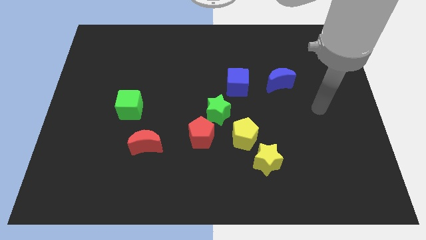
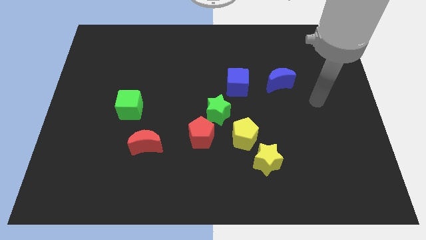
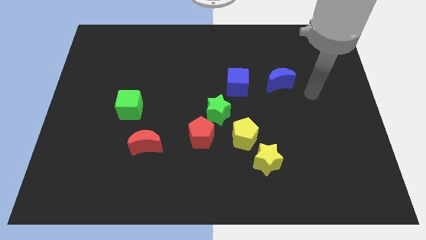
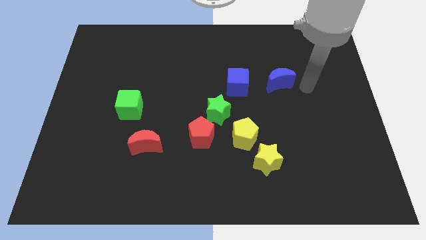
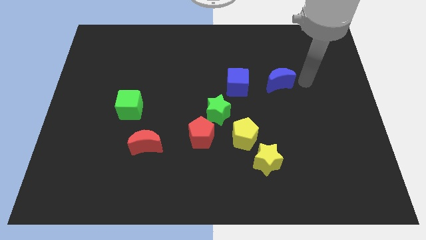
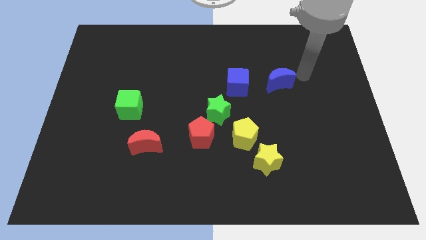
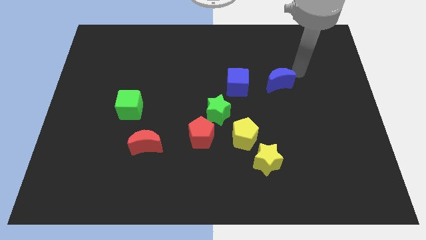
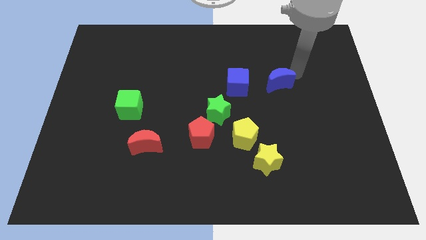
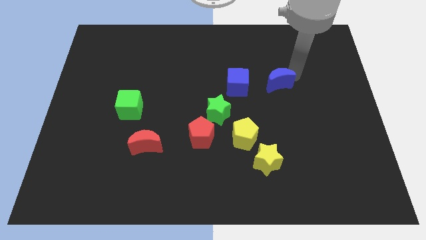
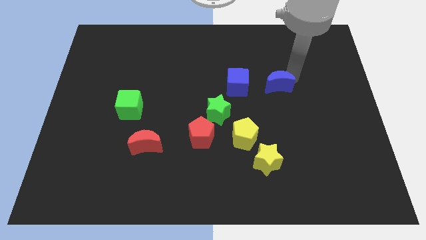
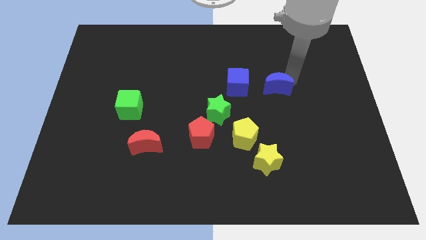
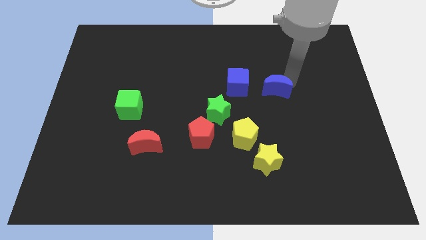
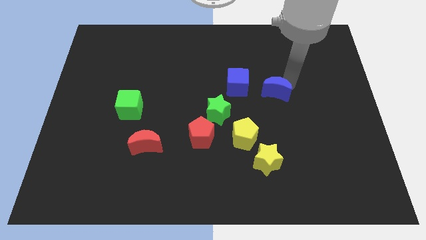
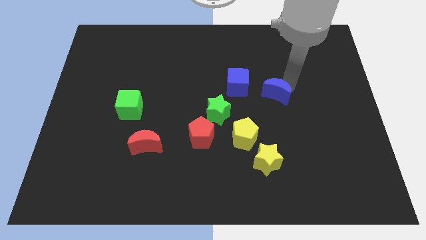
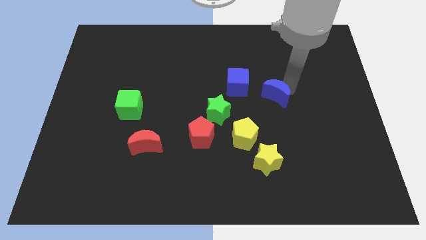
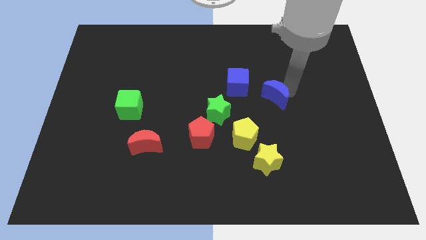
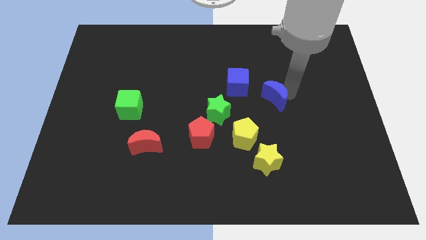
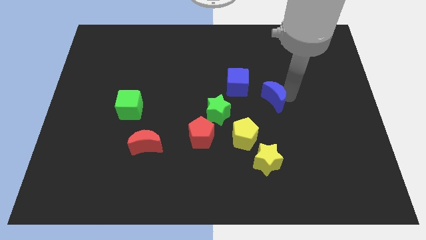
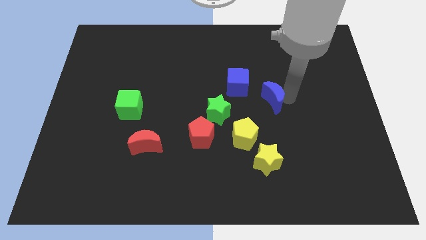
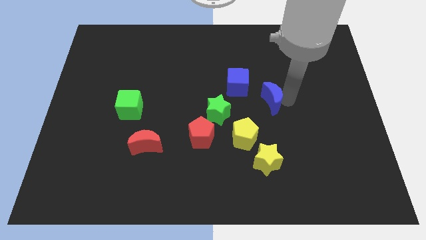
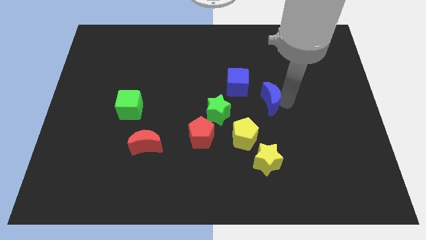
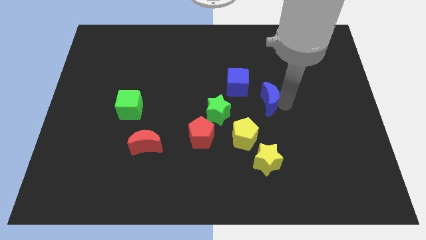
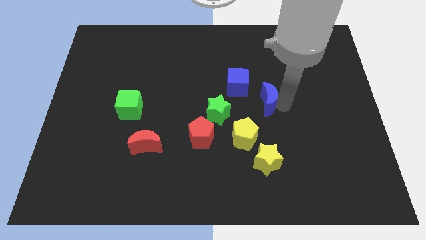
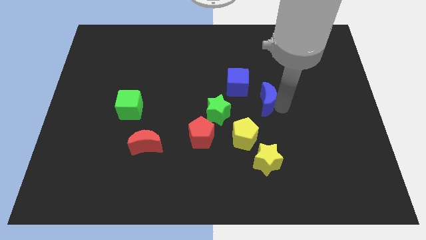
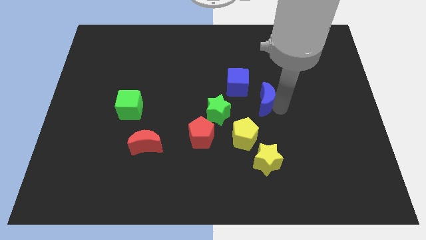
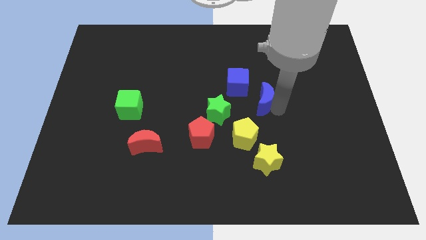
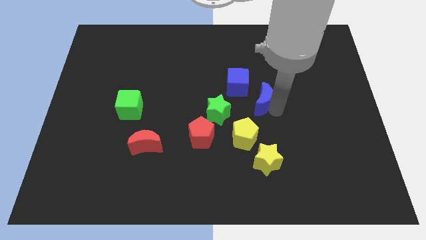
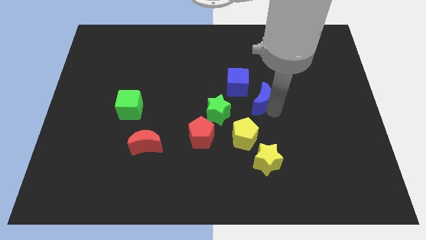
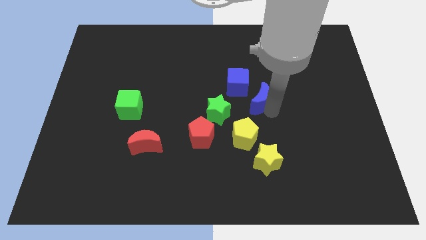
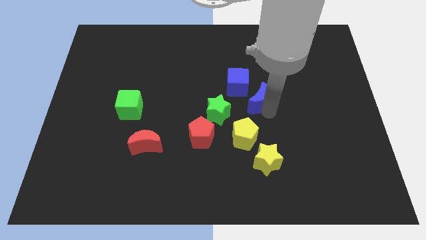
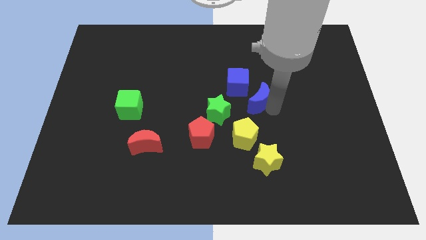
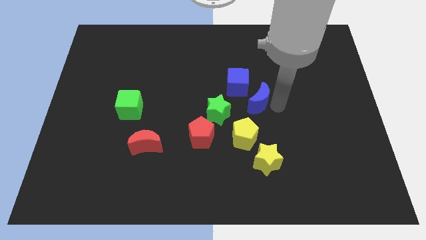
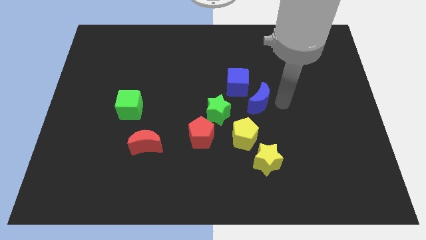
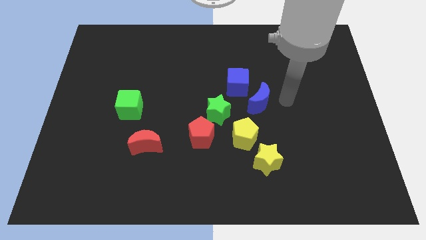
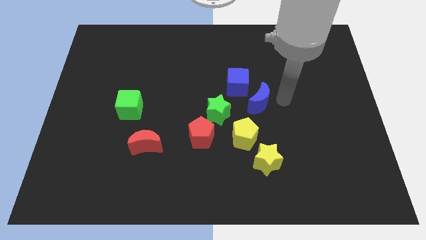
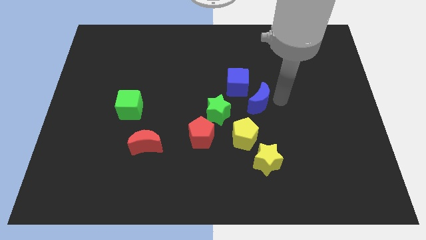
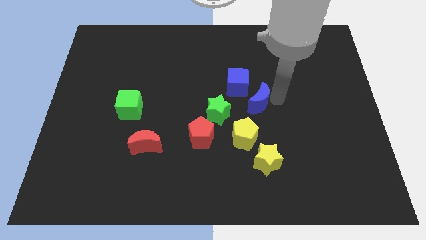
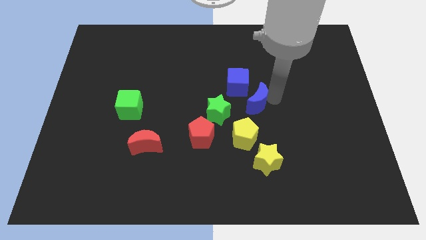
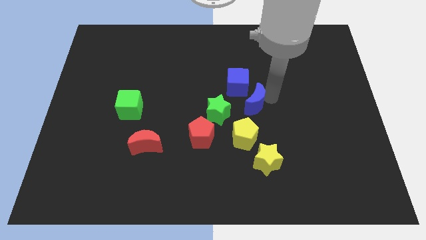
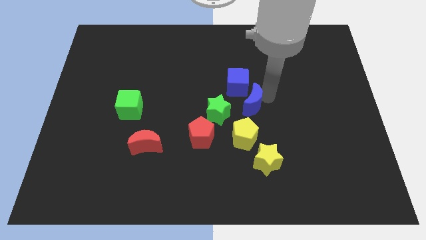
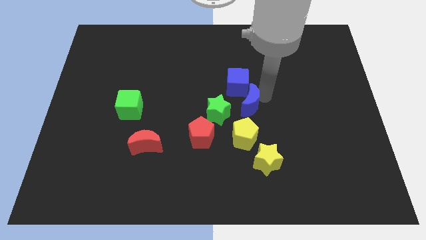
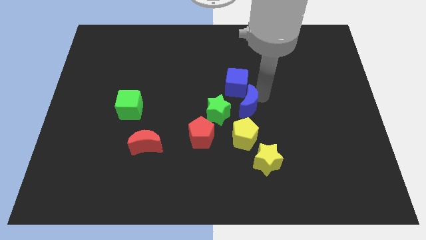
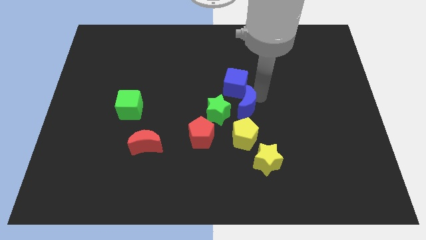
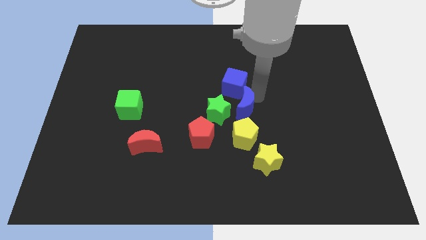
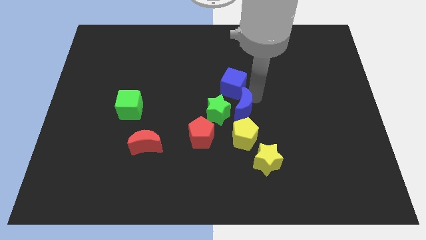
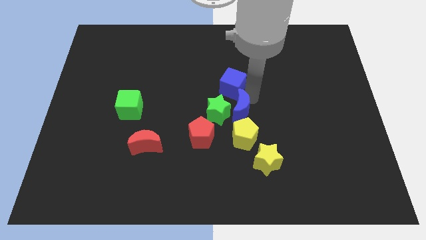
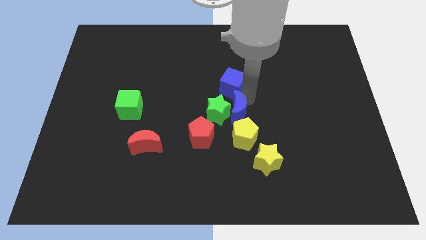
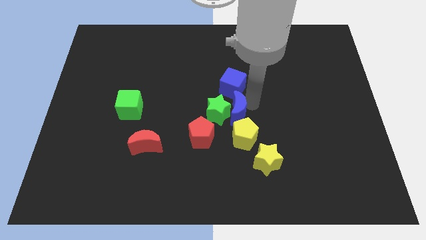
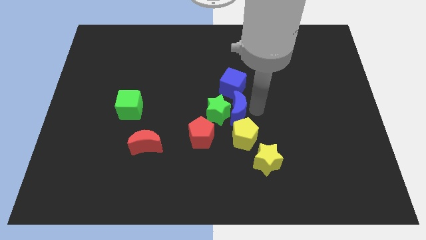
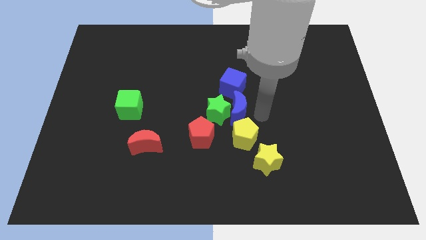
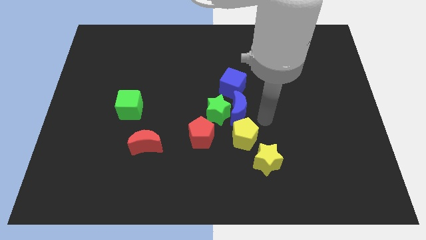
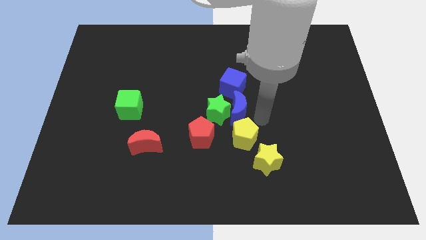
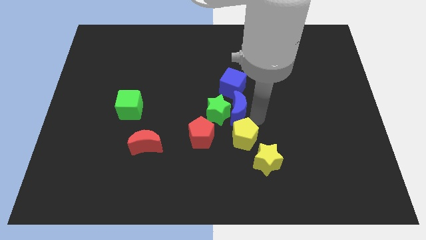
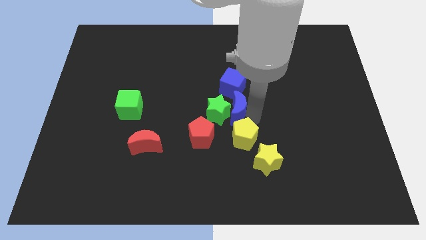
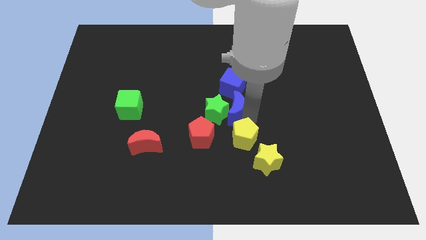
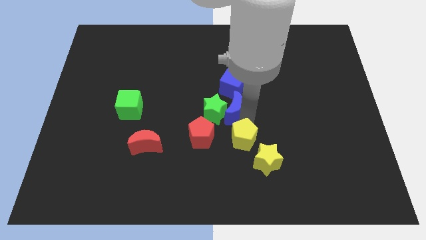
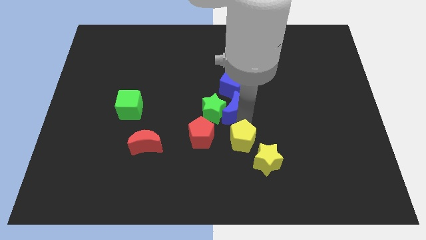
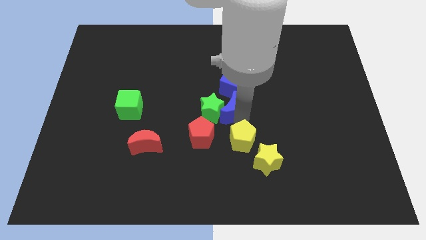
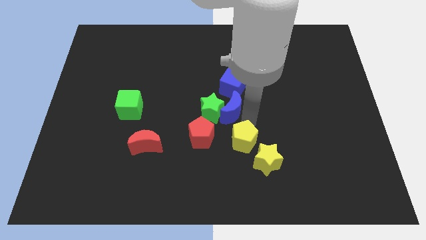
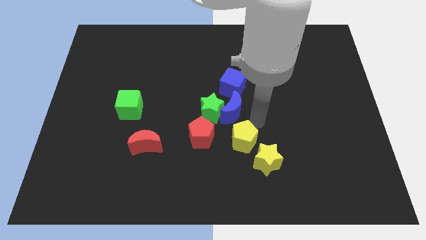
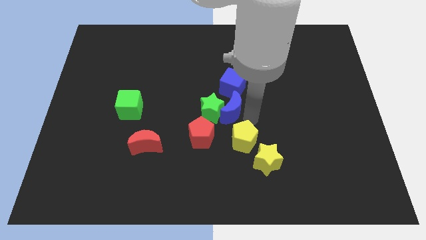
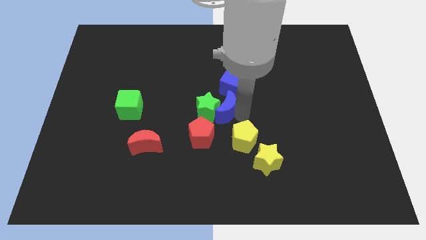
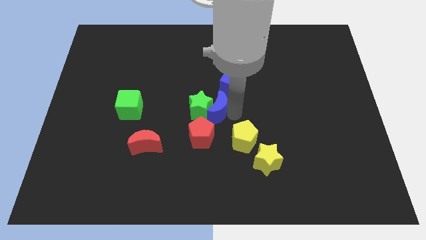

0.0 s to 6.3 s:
push the blue moon to the top of the red pentagon

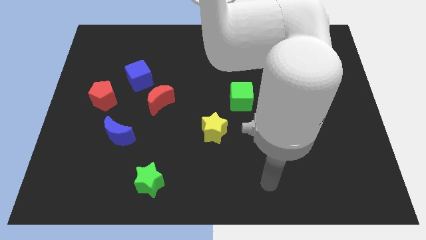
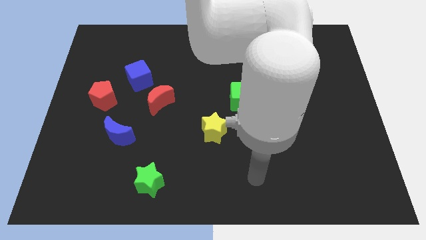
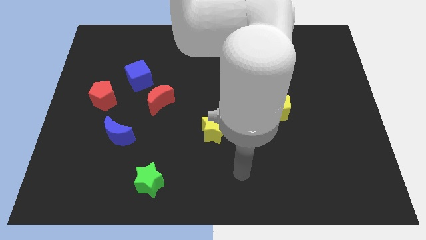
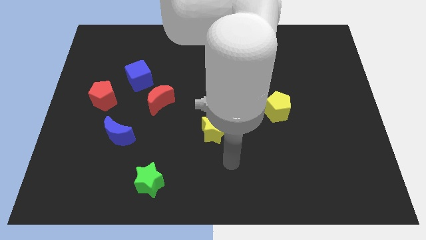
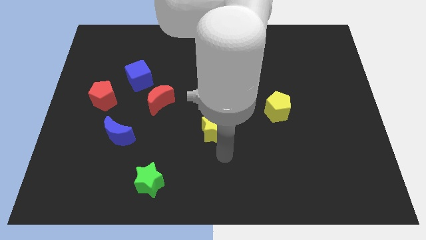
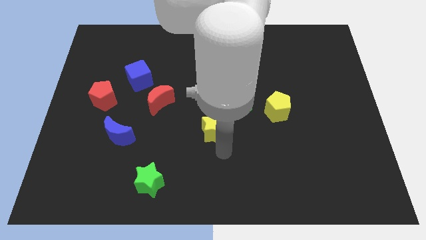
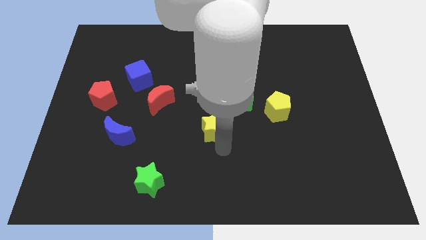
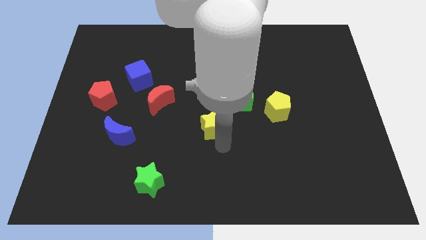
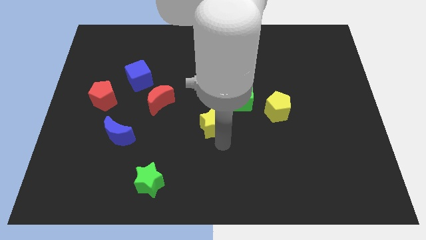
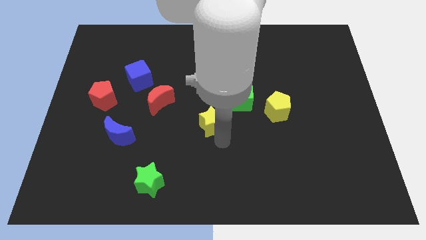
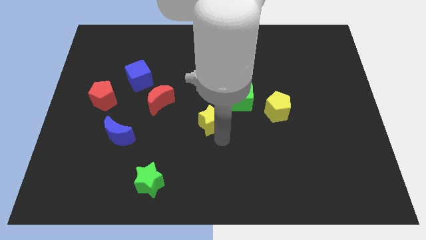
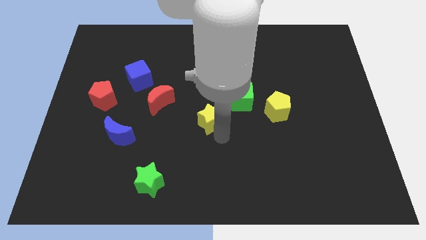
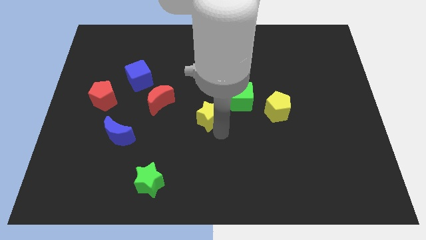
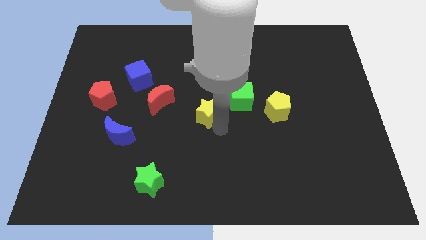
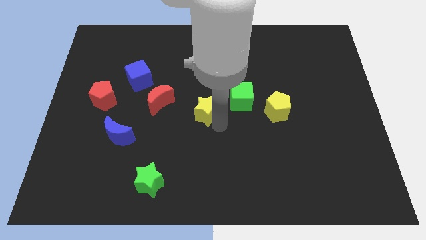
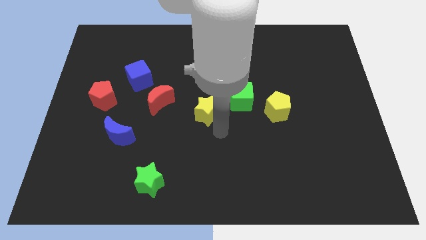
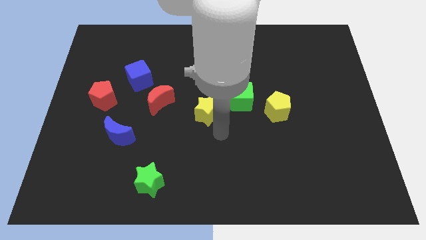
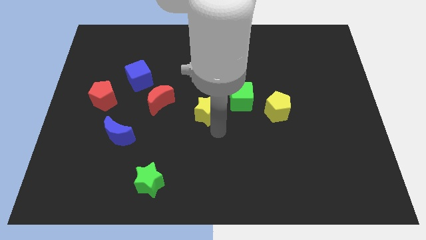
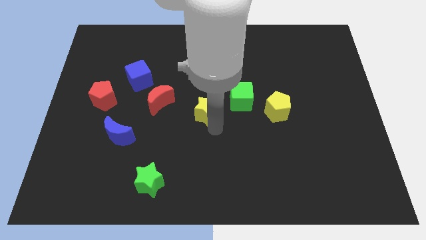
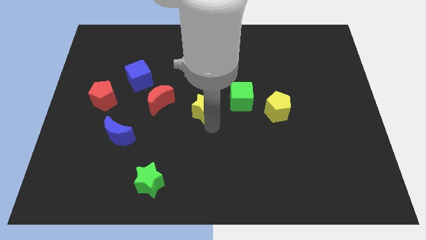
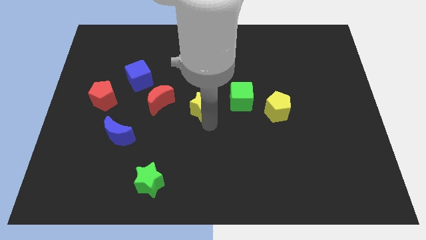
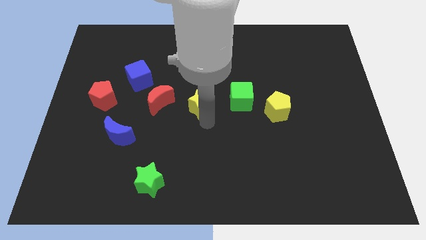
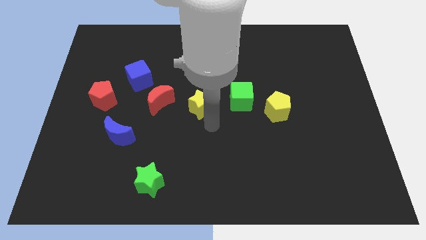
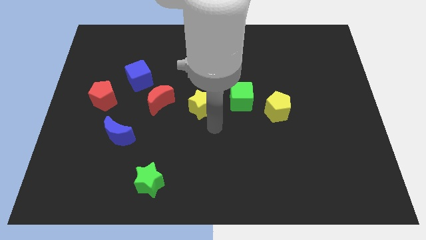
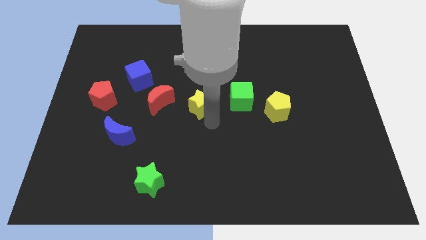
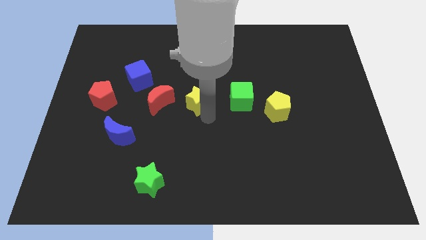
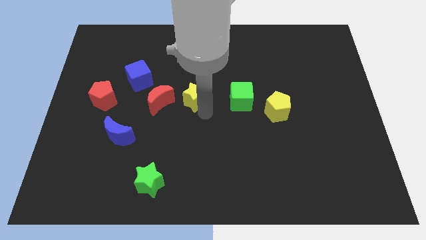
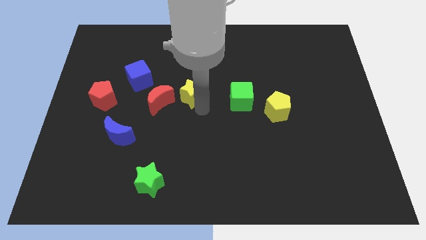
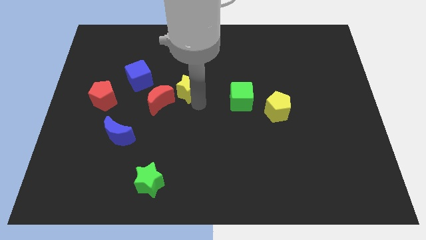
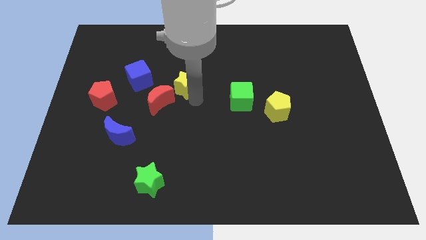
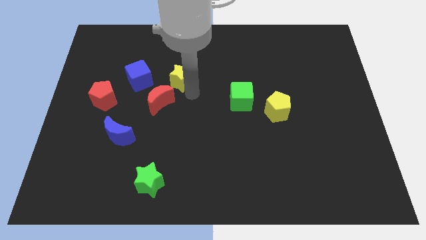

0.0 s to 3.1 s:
put the yellow star to the top of the red moon
